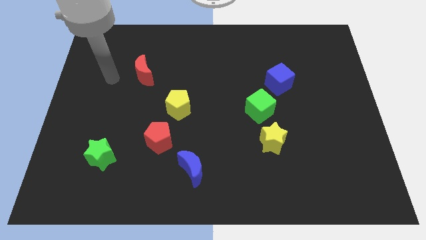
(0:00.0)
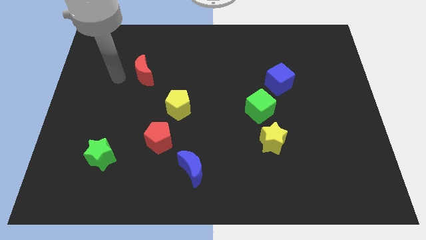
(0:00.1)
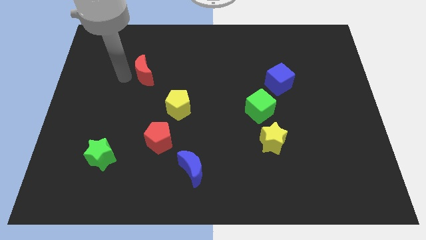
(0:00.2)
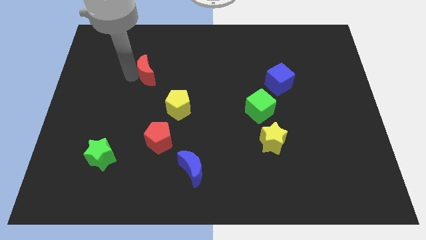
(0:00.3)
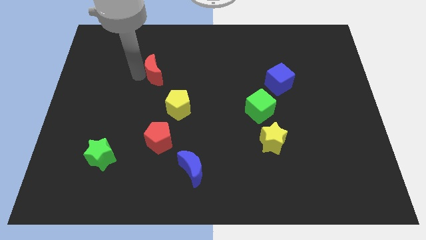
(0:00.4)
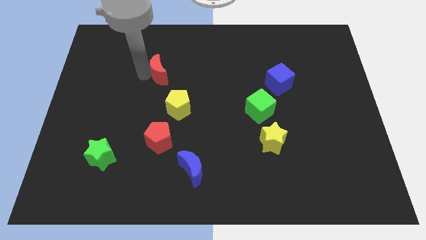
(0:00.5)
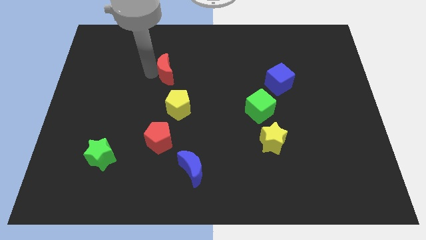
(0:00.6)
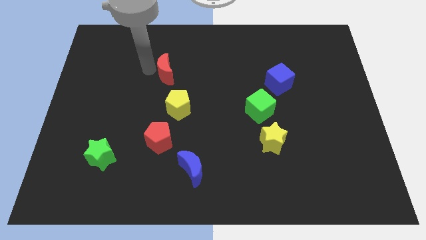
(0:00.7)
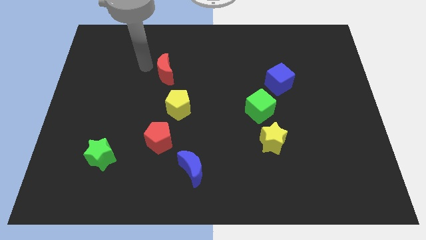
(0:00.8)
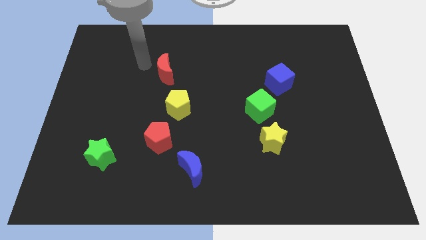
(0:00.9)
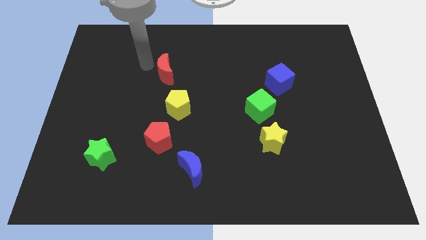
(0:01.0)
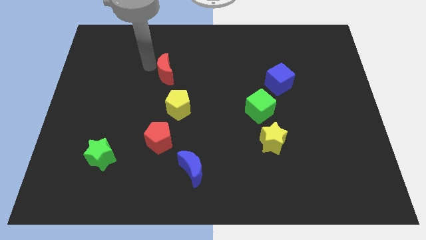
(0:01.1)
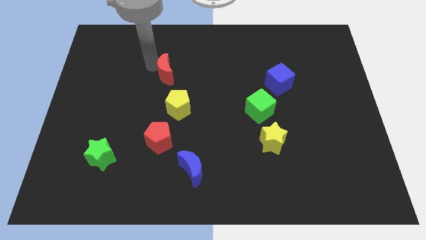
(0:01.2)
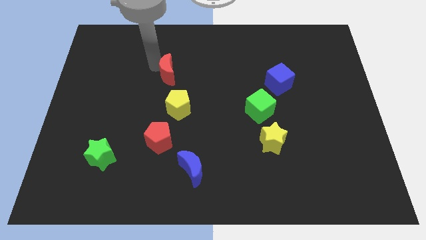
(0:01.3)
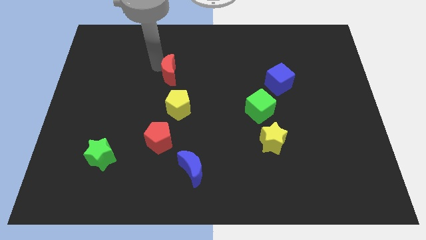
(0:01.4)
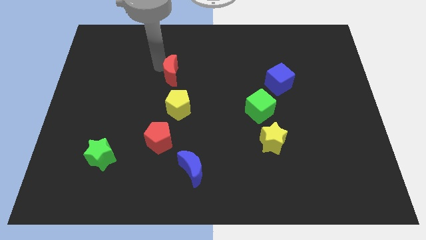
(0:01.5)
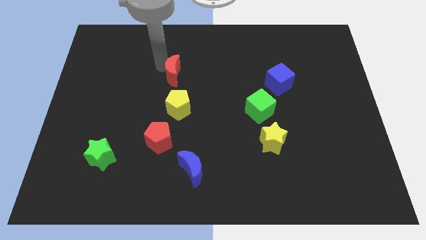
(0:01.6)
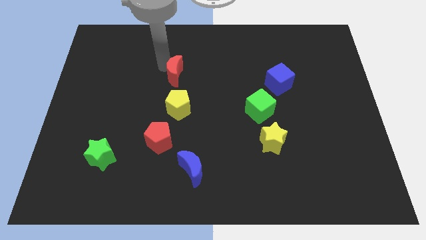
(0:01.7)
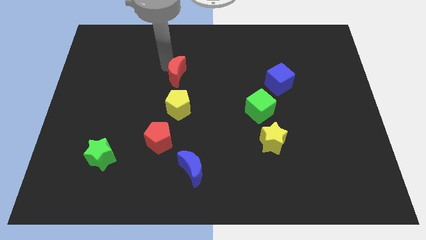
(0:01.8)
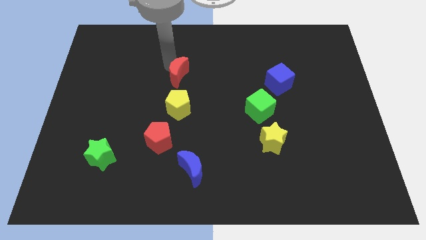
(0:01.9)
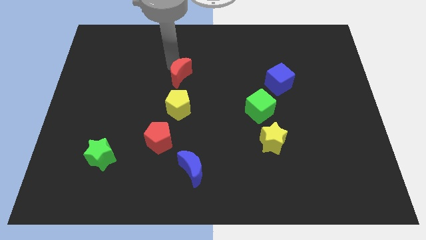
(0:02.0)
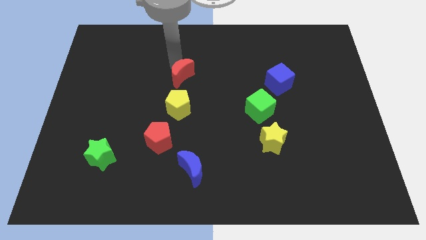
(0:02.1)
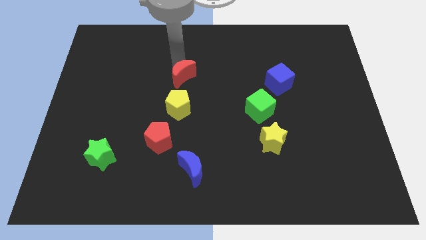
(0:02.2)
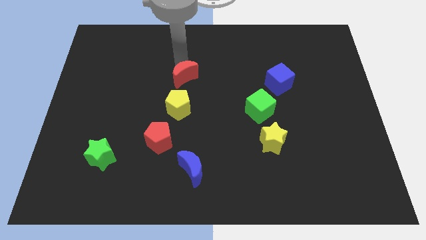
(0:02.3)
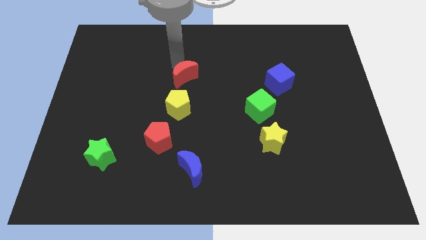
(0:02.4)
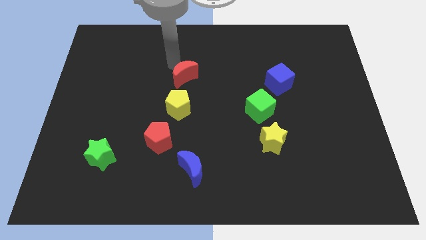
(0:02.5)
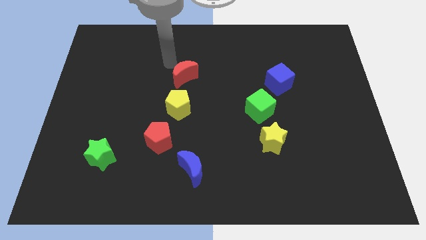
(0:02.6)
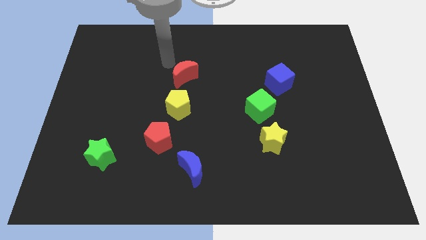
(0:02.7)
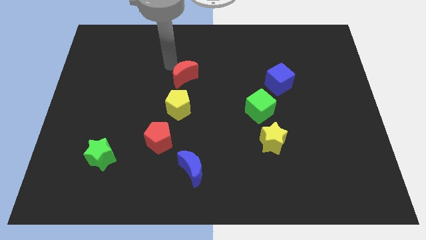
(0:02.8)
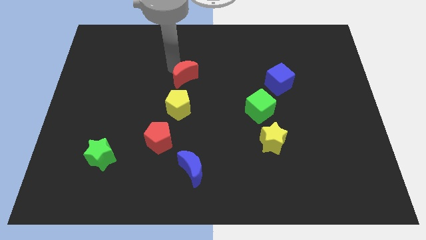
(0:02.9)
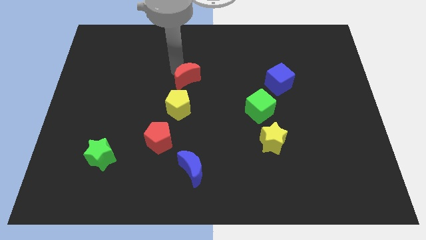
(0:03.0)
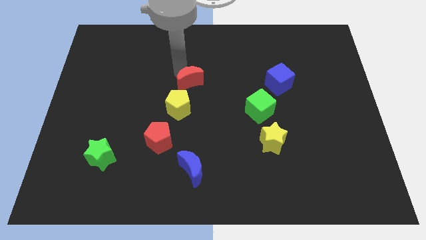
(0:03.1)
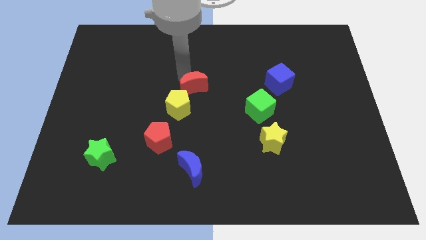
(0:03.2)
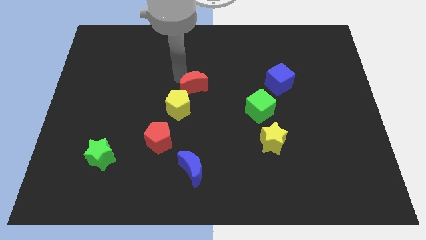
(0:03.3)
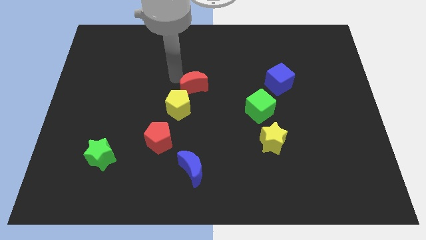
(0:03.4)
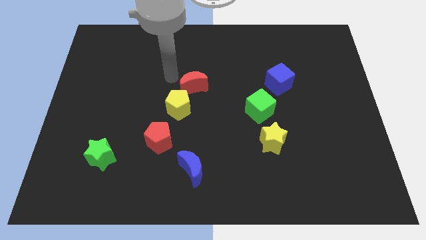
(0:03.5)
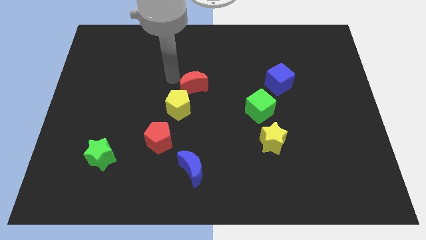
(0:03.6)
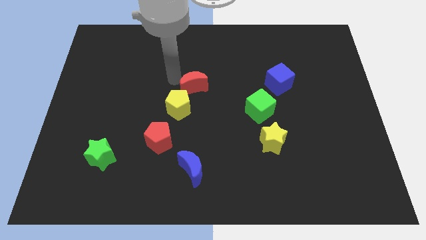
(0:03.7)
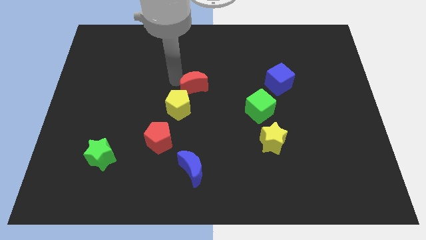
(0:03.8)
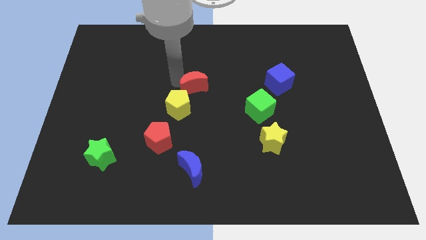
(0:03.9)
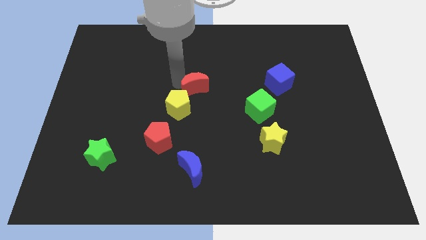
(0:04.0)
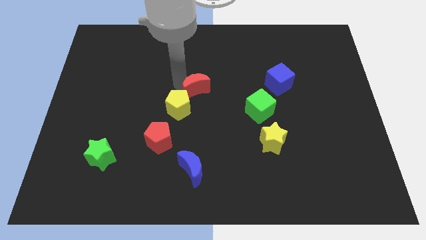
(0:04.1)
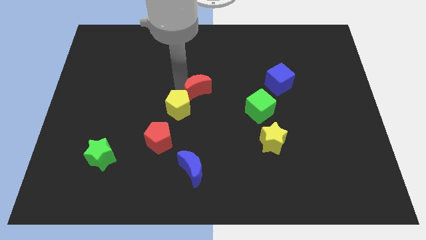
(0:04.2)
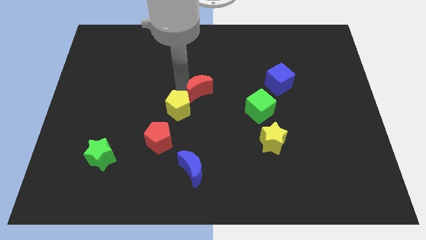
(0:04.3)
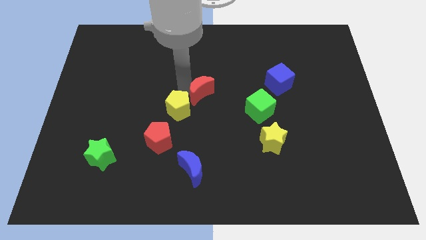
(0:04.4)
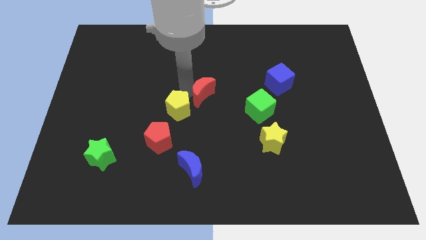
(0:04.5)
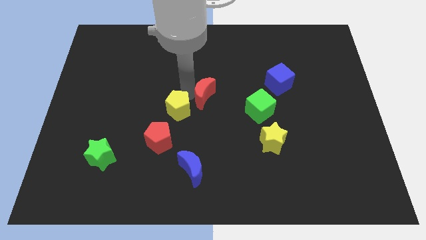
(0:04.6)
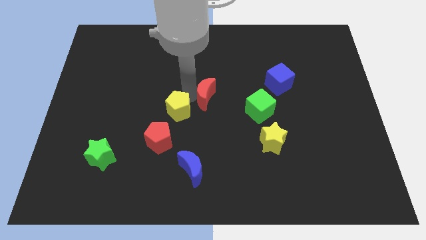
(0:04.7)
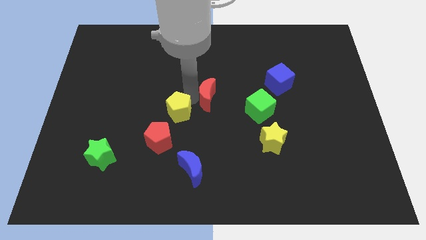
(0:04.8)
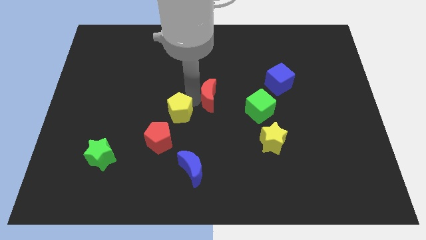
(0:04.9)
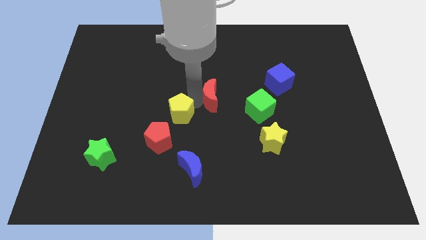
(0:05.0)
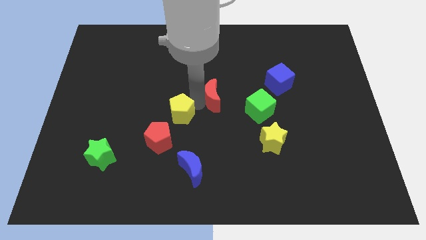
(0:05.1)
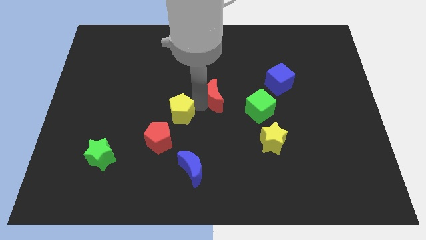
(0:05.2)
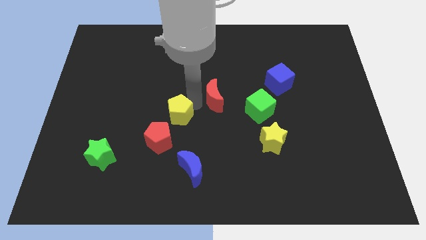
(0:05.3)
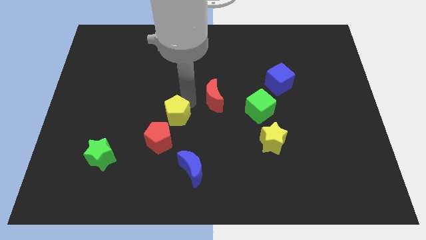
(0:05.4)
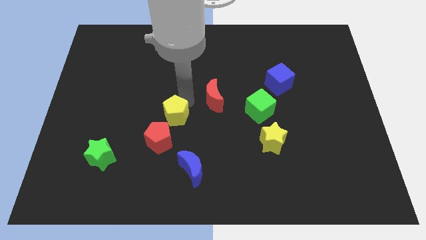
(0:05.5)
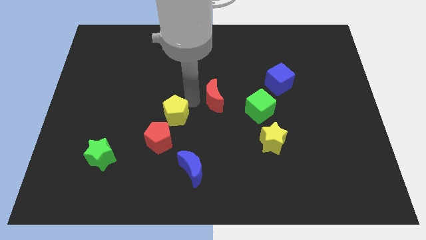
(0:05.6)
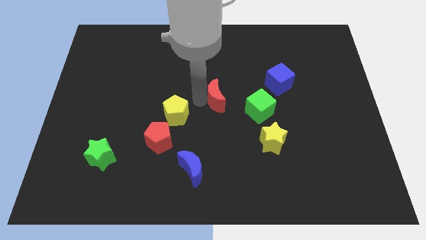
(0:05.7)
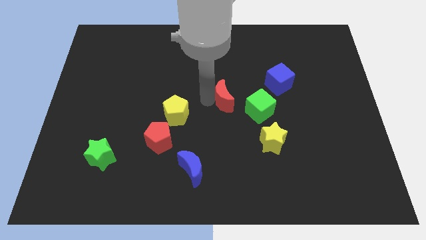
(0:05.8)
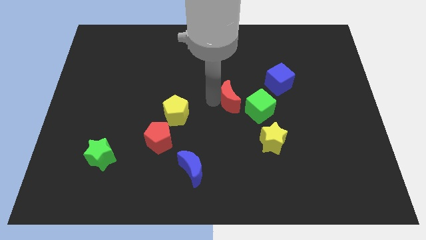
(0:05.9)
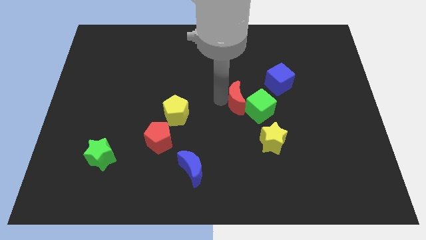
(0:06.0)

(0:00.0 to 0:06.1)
put the red moon close to the green cube

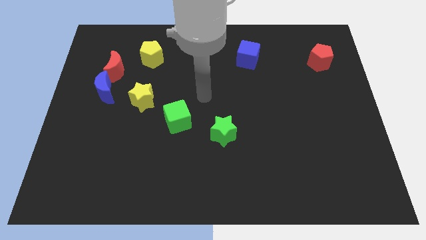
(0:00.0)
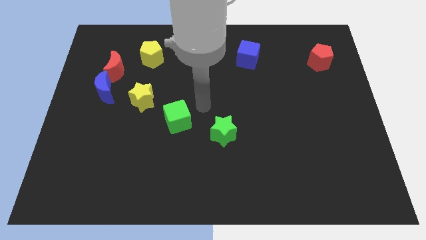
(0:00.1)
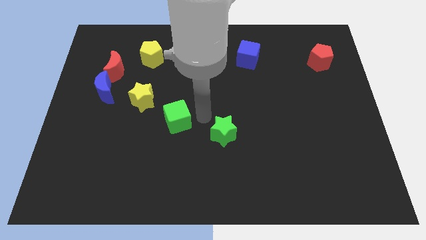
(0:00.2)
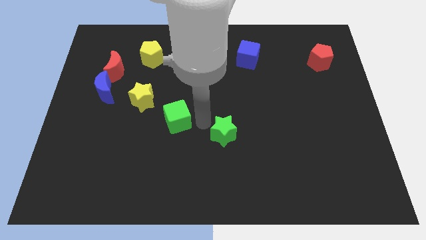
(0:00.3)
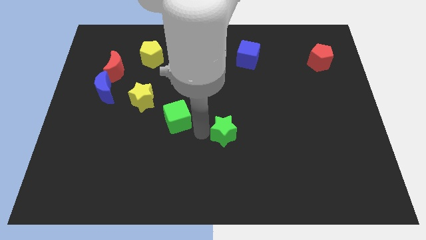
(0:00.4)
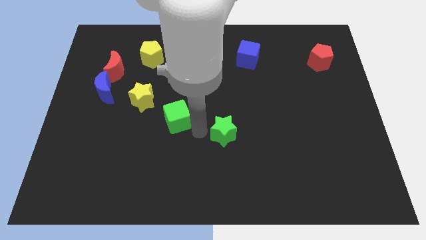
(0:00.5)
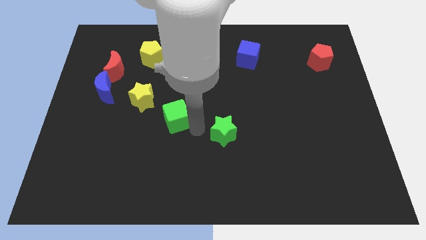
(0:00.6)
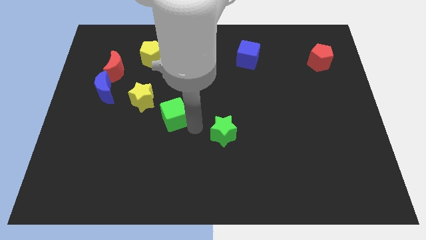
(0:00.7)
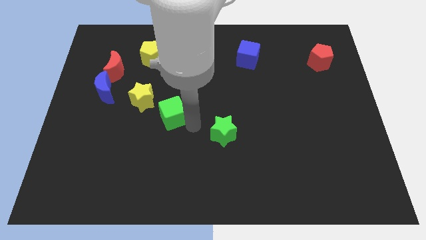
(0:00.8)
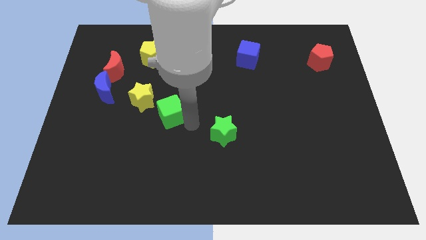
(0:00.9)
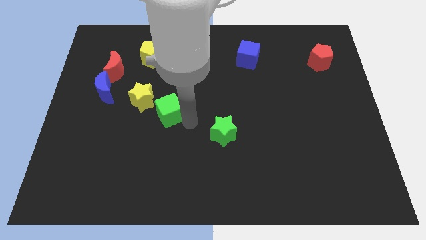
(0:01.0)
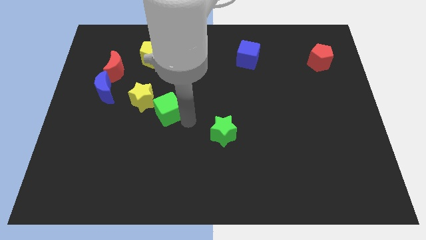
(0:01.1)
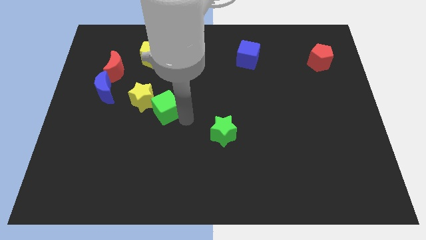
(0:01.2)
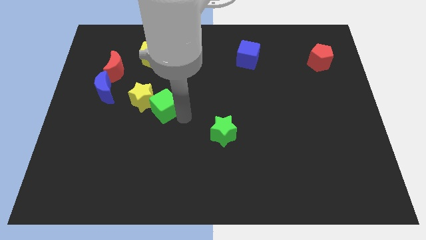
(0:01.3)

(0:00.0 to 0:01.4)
slide the green cube next to the yellow star
